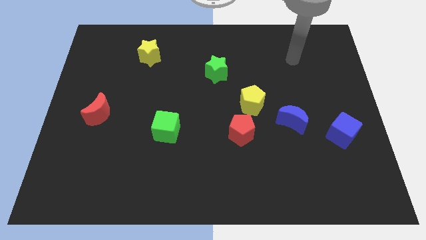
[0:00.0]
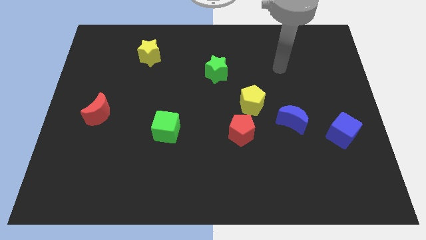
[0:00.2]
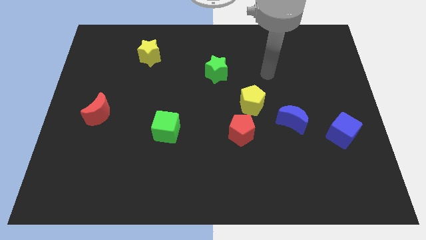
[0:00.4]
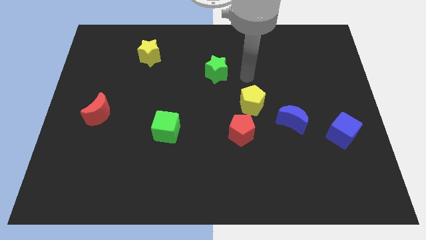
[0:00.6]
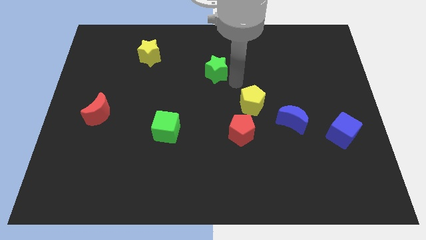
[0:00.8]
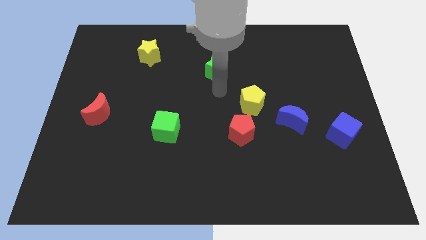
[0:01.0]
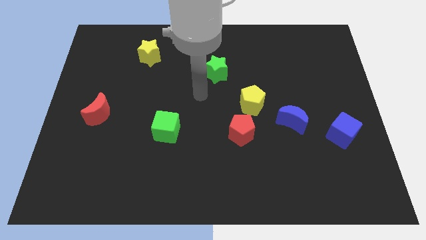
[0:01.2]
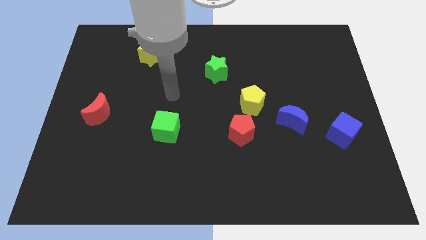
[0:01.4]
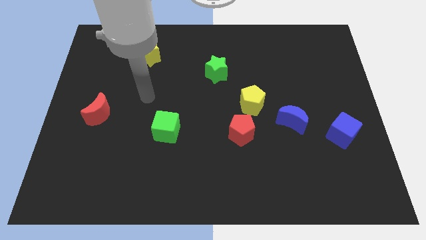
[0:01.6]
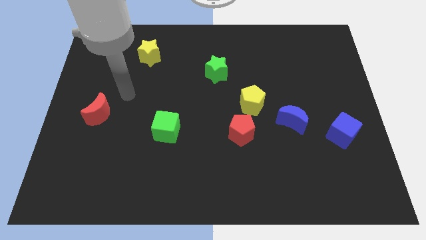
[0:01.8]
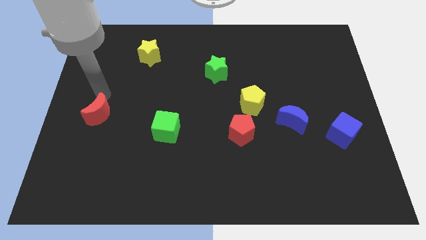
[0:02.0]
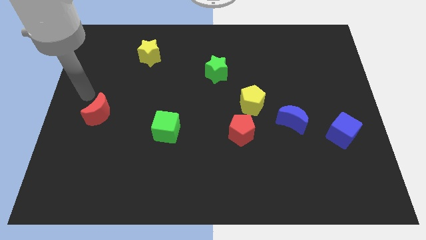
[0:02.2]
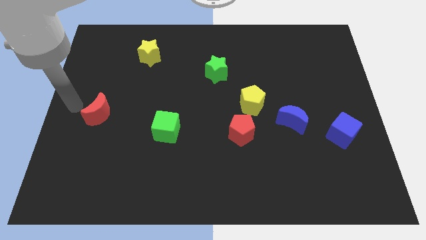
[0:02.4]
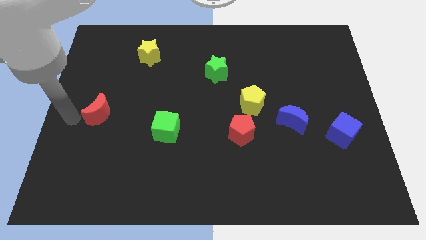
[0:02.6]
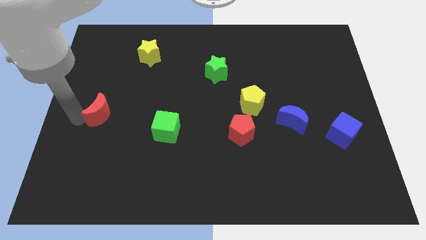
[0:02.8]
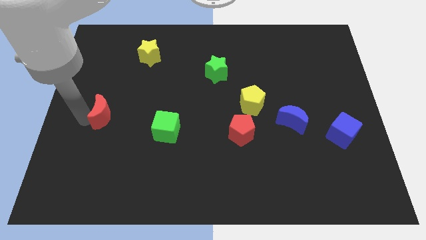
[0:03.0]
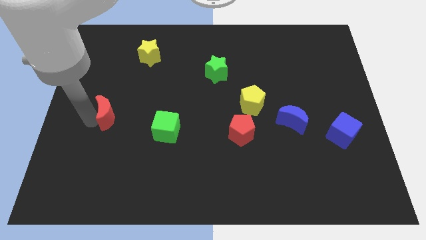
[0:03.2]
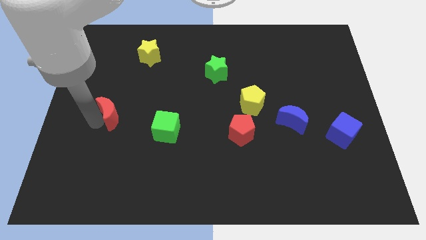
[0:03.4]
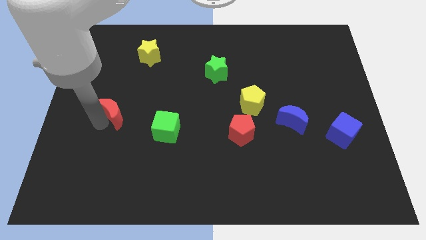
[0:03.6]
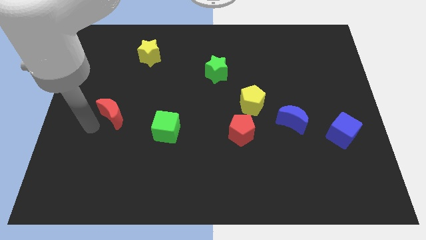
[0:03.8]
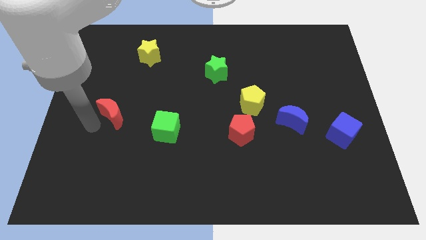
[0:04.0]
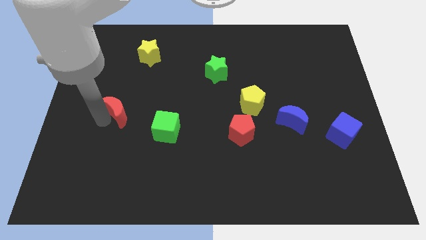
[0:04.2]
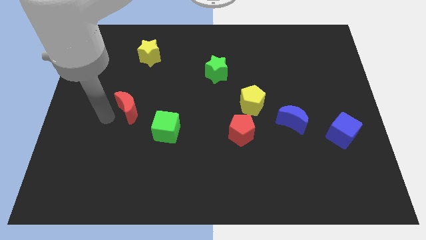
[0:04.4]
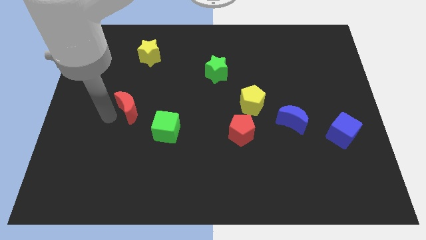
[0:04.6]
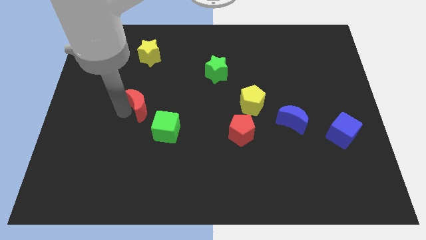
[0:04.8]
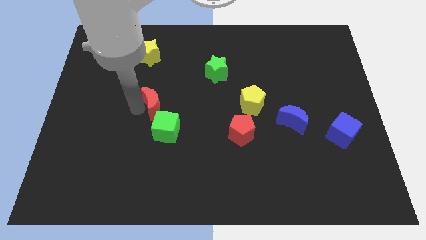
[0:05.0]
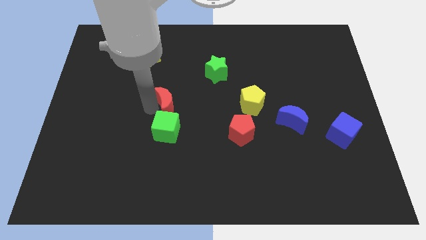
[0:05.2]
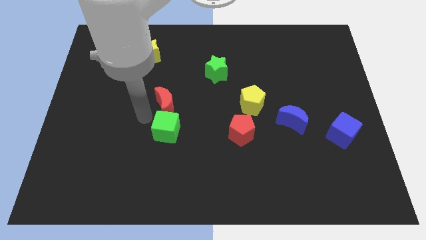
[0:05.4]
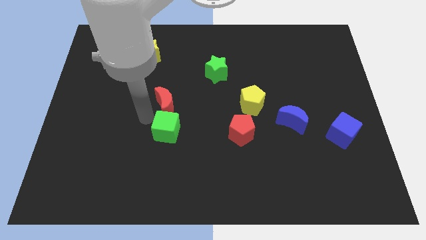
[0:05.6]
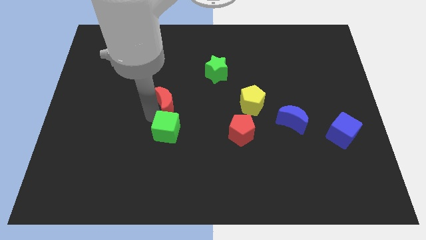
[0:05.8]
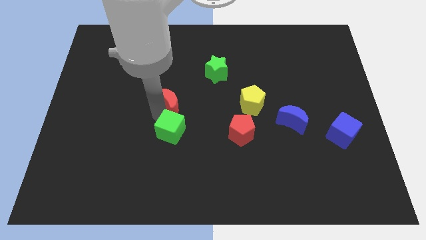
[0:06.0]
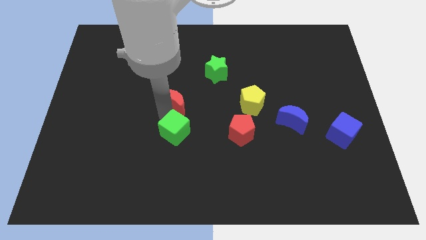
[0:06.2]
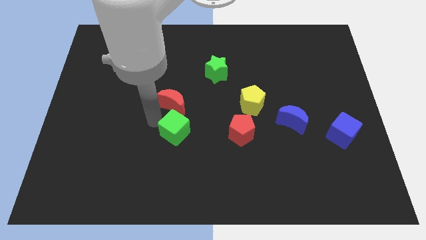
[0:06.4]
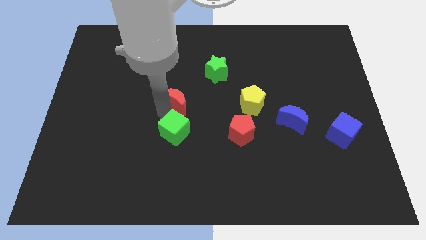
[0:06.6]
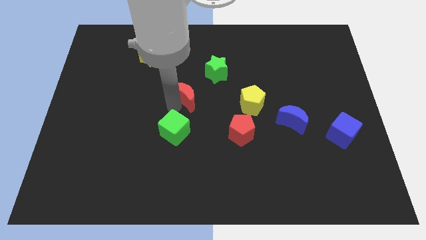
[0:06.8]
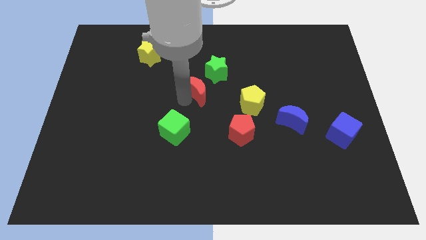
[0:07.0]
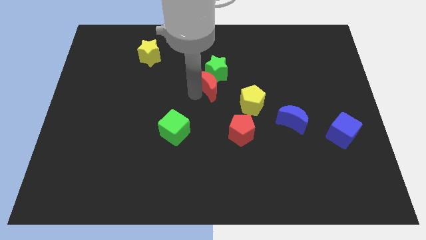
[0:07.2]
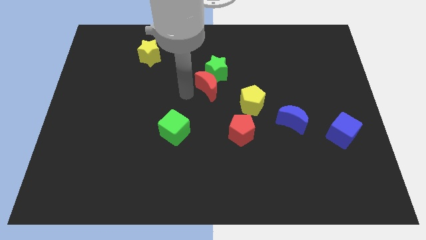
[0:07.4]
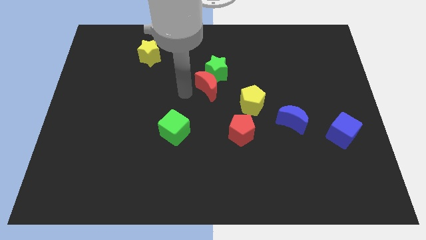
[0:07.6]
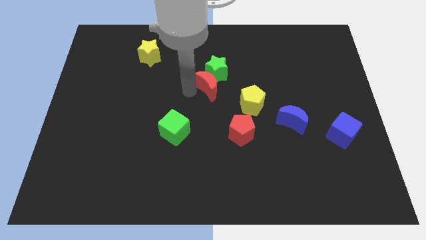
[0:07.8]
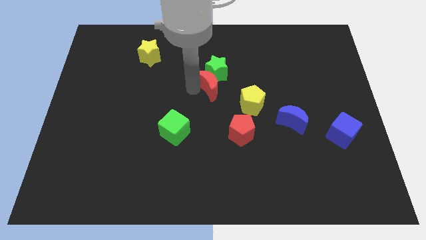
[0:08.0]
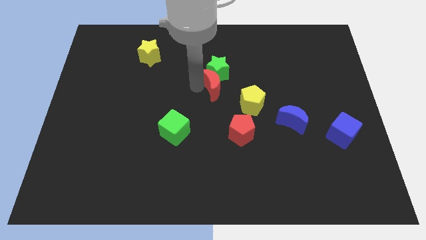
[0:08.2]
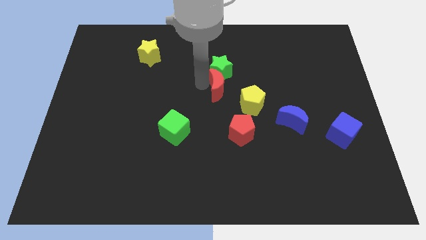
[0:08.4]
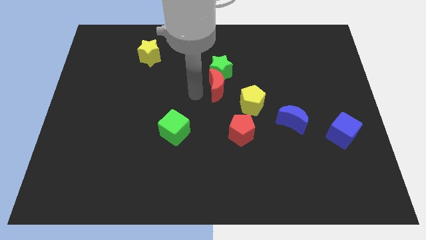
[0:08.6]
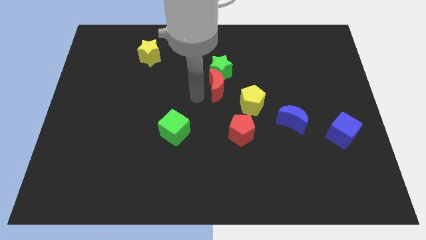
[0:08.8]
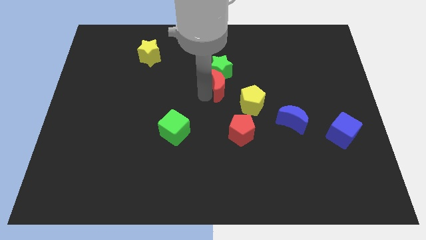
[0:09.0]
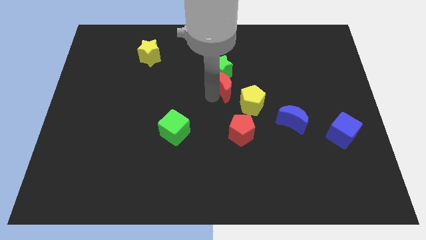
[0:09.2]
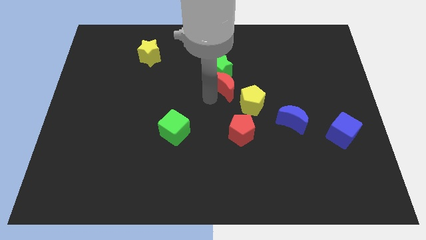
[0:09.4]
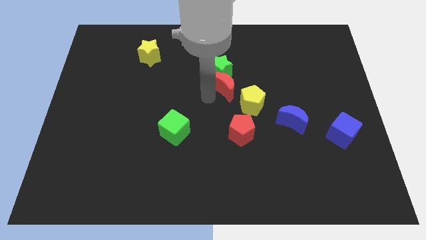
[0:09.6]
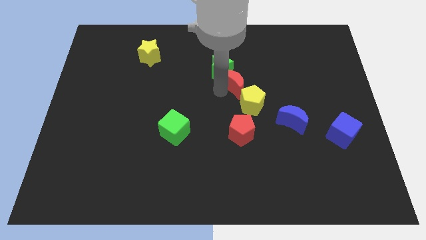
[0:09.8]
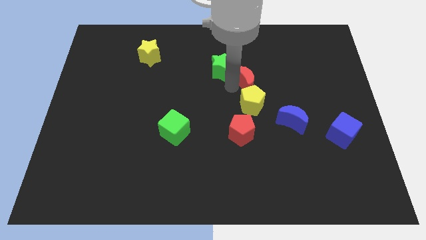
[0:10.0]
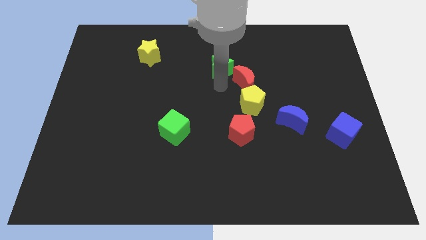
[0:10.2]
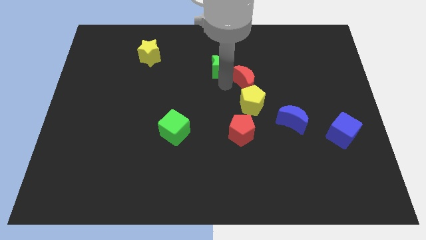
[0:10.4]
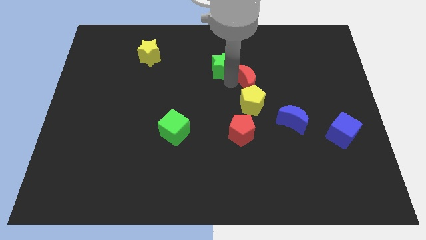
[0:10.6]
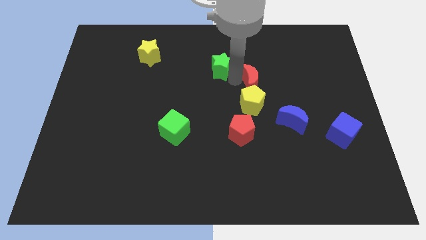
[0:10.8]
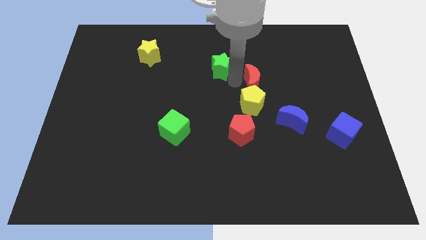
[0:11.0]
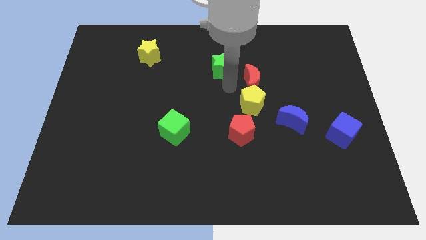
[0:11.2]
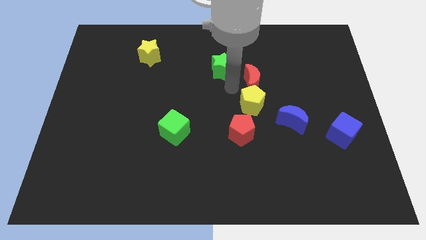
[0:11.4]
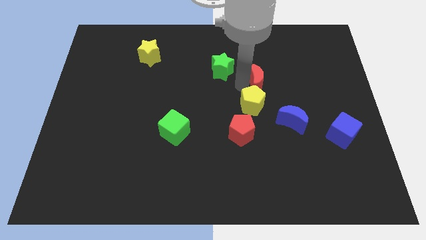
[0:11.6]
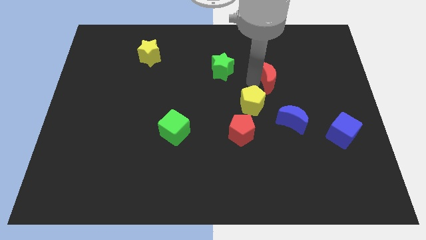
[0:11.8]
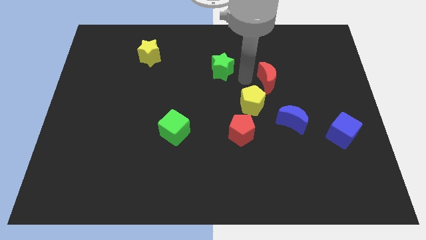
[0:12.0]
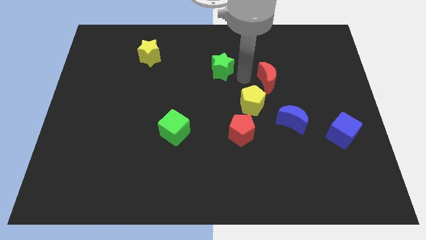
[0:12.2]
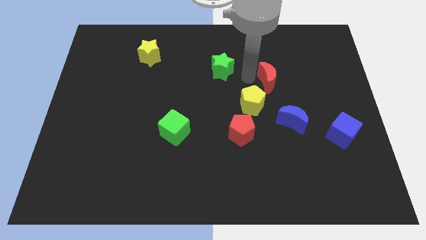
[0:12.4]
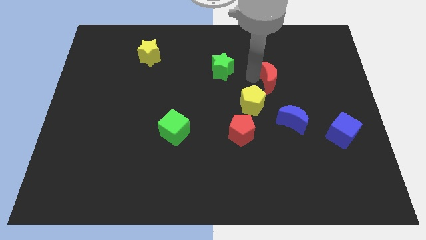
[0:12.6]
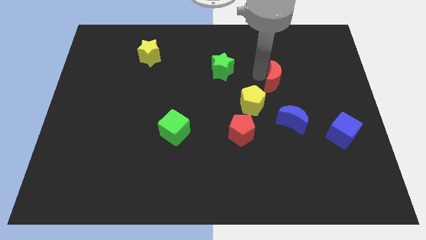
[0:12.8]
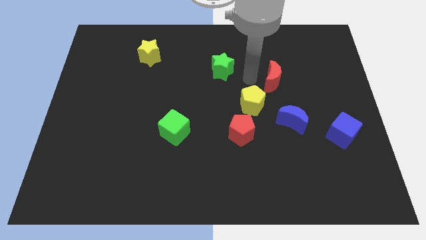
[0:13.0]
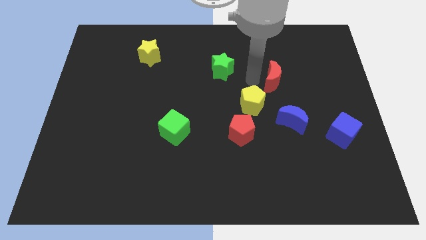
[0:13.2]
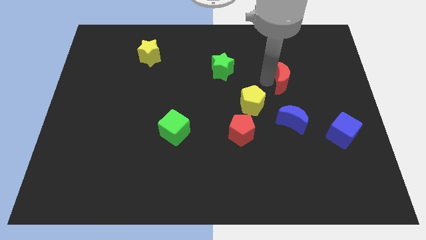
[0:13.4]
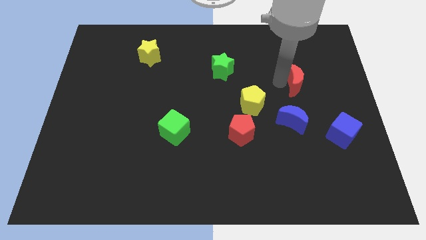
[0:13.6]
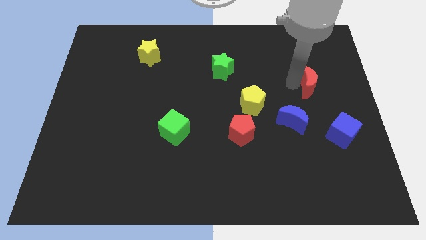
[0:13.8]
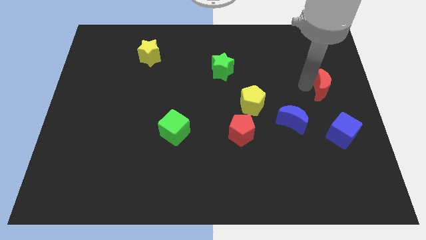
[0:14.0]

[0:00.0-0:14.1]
move the red moon to the right side of the board
